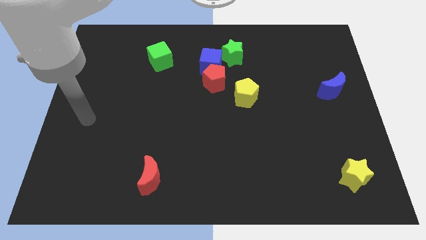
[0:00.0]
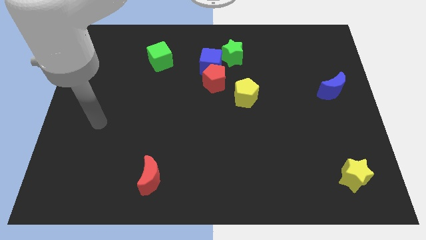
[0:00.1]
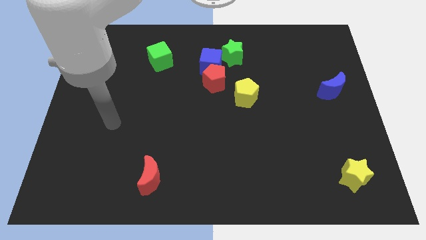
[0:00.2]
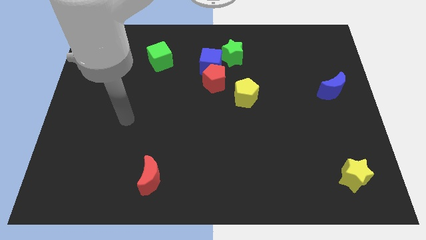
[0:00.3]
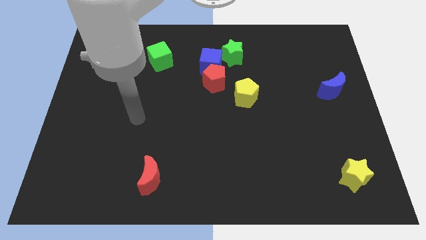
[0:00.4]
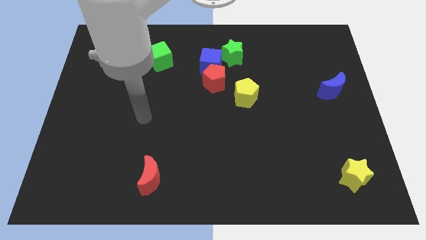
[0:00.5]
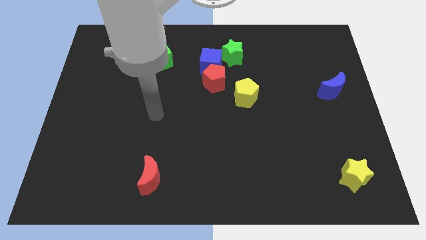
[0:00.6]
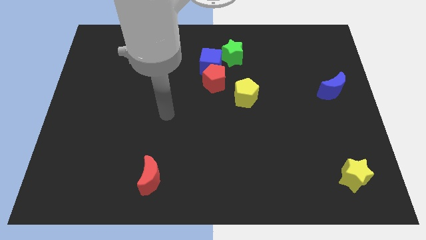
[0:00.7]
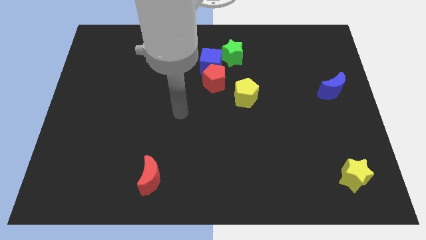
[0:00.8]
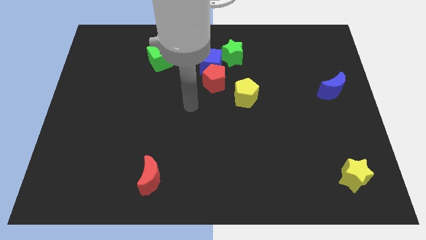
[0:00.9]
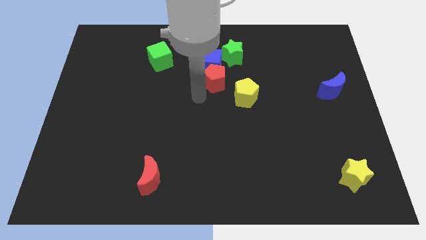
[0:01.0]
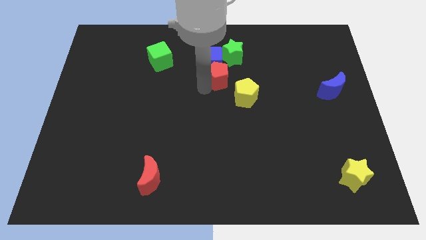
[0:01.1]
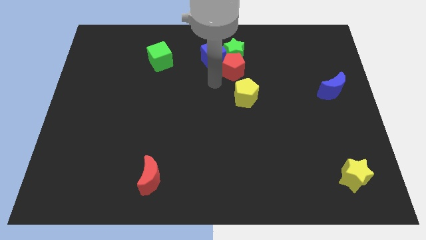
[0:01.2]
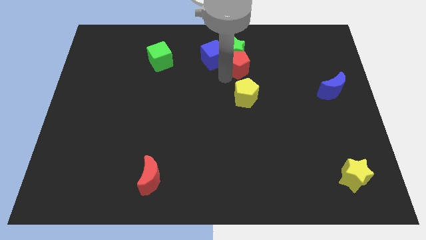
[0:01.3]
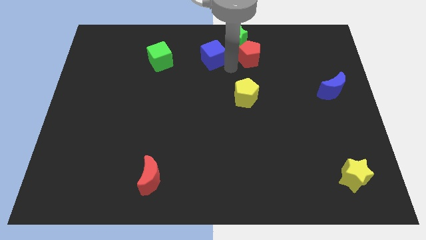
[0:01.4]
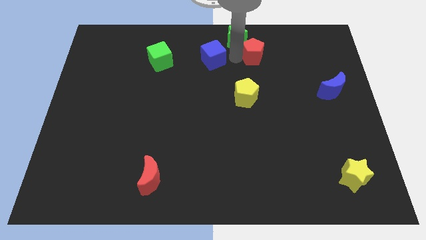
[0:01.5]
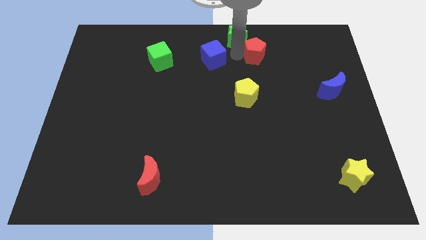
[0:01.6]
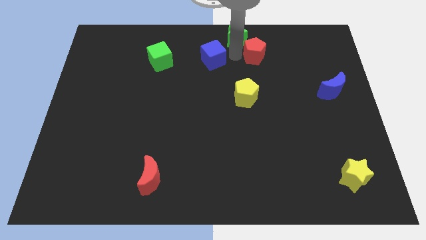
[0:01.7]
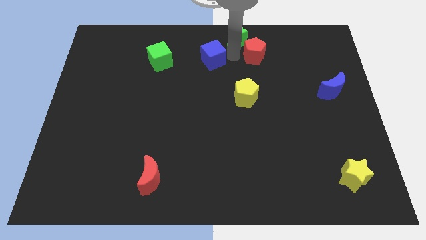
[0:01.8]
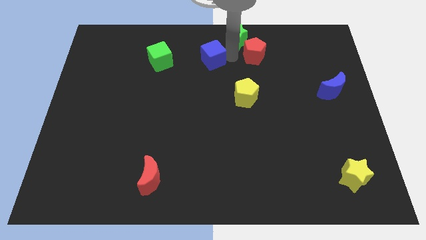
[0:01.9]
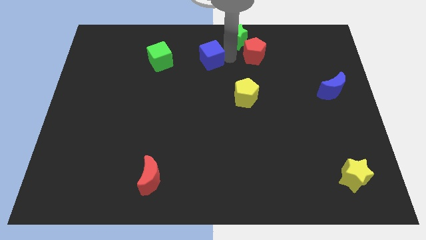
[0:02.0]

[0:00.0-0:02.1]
separate the blue cube from the red pentagon and green star

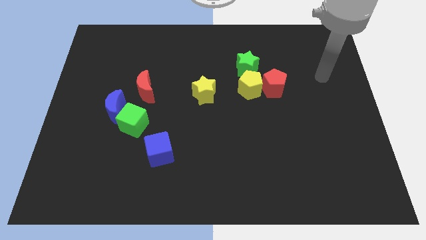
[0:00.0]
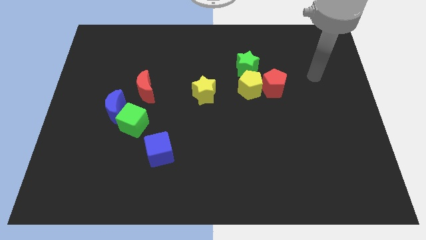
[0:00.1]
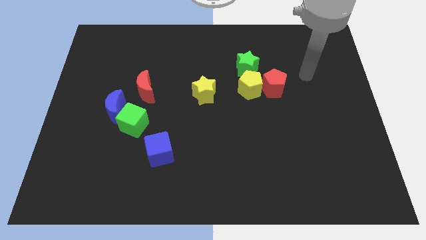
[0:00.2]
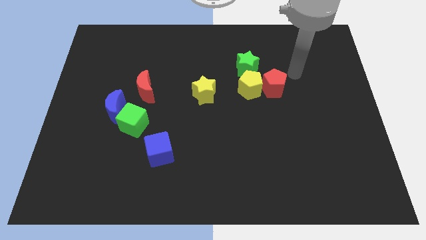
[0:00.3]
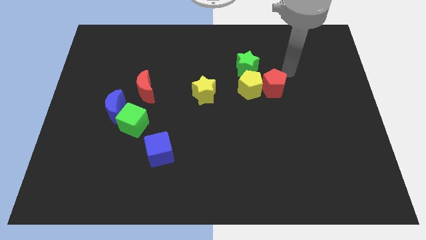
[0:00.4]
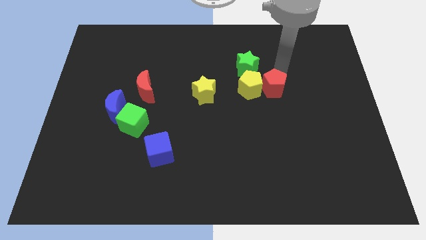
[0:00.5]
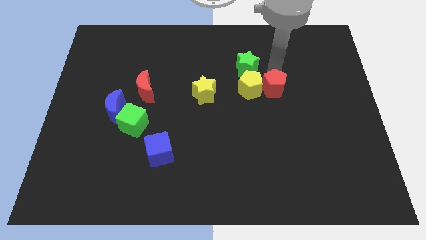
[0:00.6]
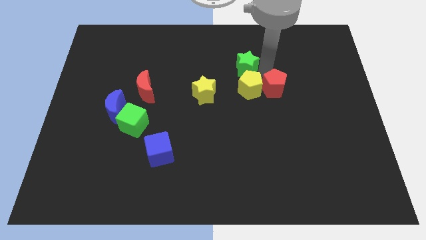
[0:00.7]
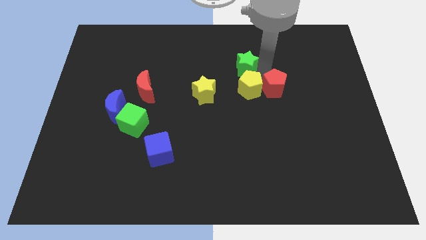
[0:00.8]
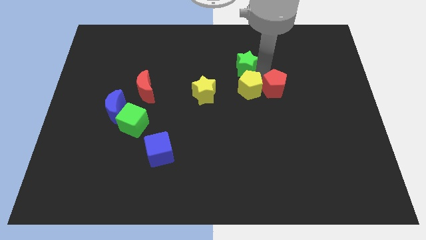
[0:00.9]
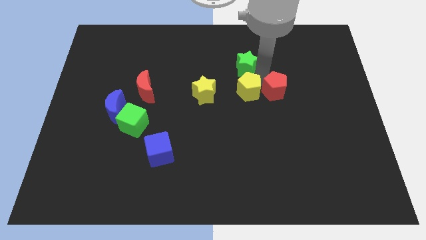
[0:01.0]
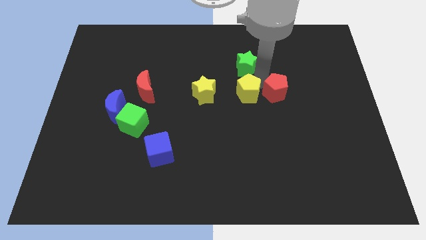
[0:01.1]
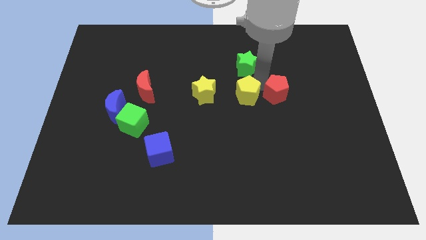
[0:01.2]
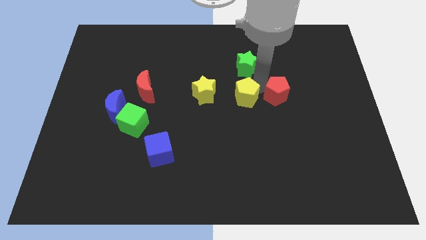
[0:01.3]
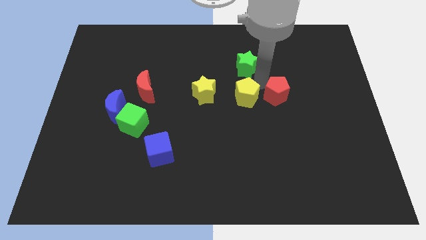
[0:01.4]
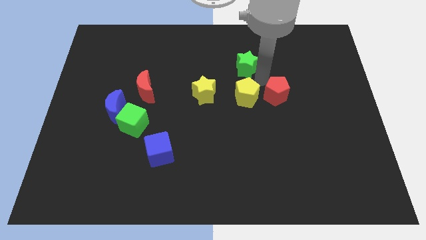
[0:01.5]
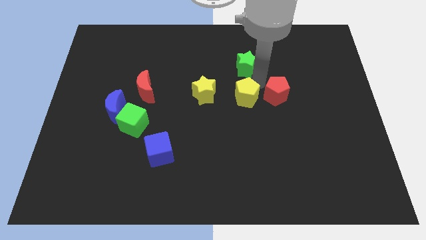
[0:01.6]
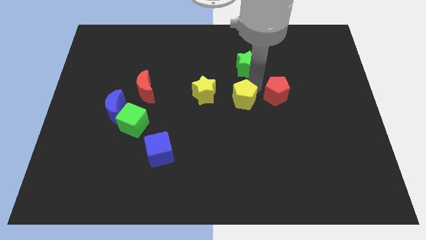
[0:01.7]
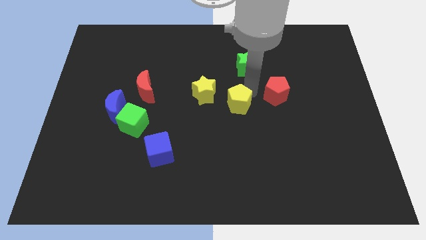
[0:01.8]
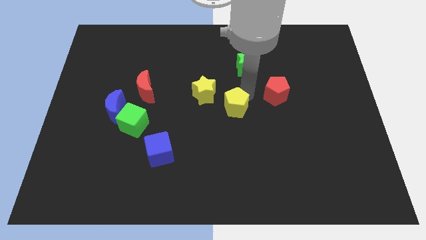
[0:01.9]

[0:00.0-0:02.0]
separate the yellow pentagon from the red pentagon and green star

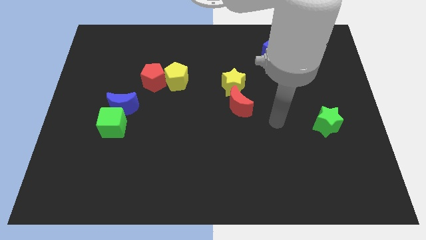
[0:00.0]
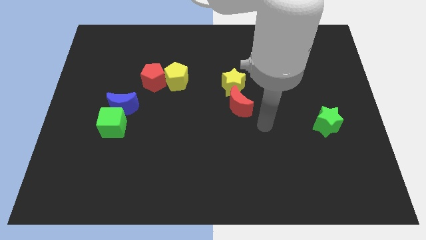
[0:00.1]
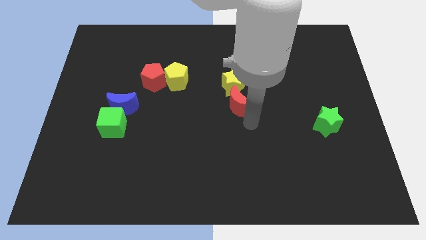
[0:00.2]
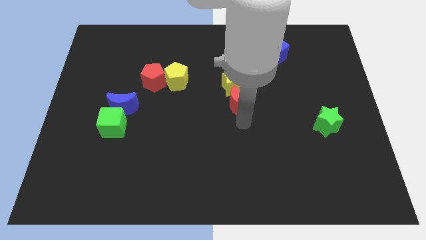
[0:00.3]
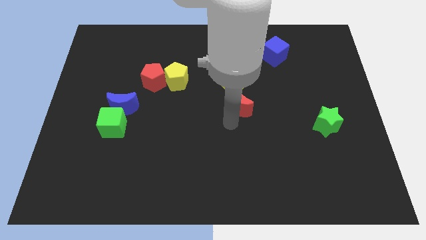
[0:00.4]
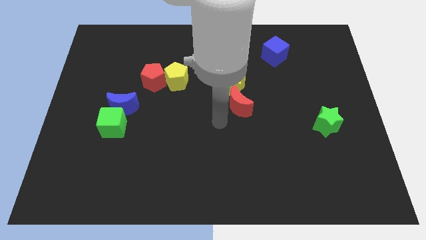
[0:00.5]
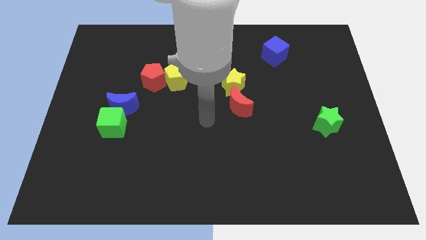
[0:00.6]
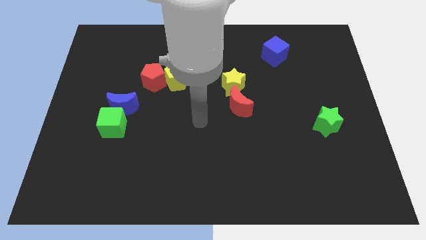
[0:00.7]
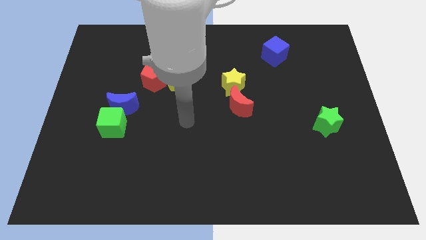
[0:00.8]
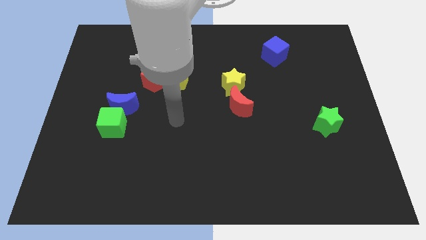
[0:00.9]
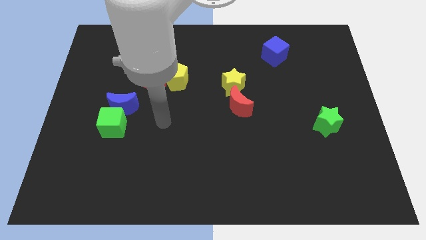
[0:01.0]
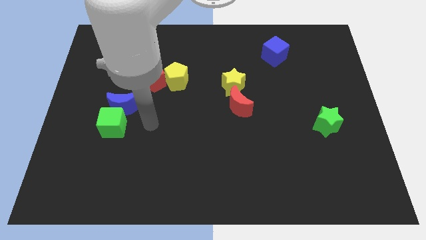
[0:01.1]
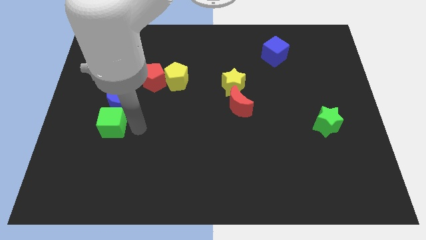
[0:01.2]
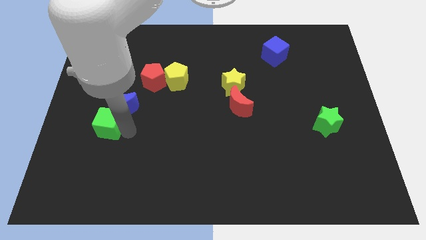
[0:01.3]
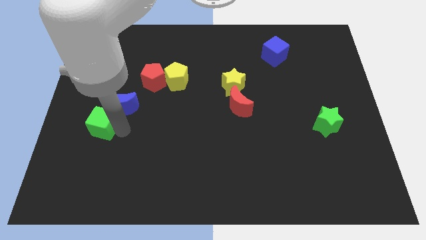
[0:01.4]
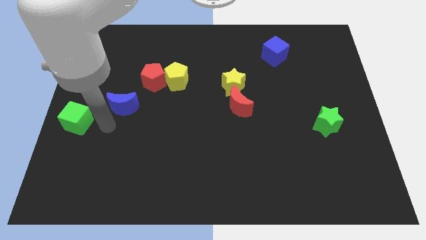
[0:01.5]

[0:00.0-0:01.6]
move the blue moon away from the green cube

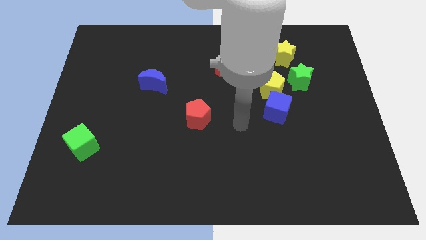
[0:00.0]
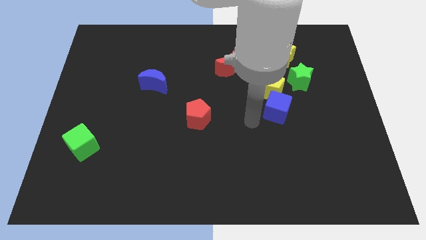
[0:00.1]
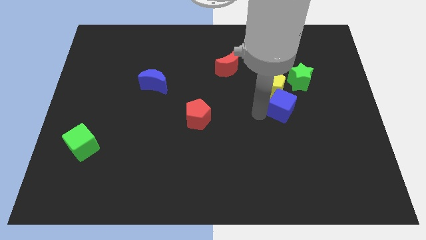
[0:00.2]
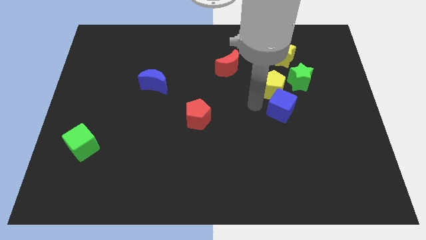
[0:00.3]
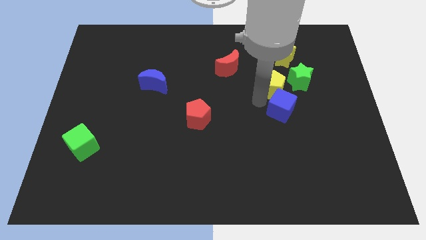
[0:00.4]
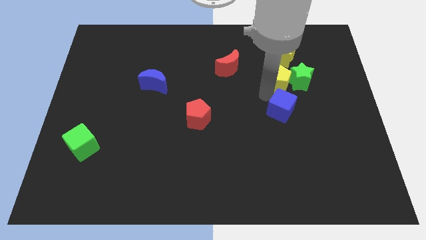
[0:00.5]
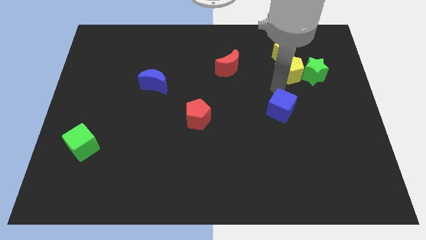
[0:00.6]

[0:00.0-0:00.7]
separate the blue cube from the yellow pentagon

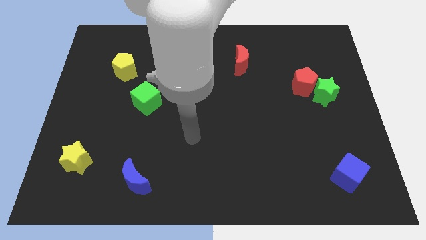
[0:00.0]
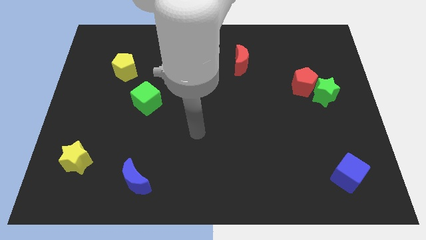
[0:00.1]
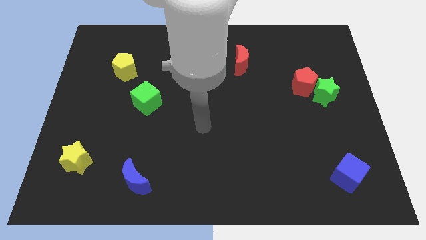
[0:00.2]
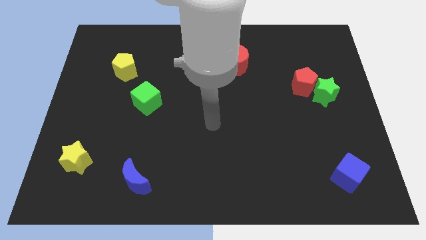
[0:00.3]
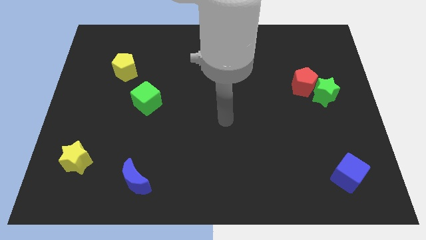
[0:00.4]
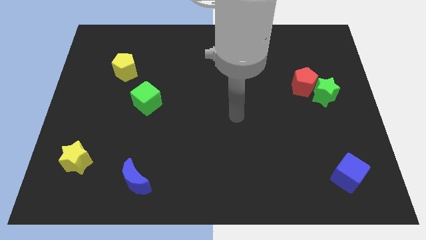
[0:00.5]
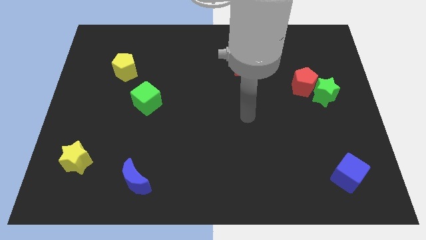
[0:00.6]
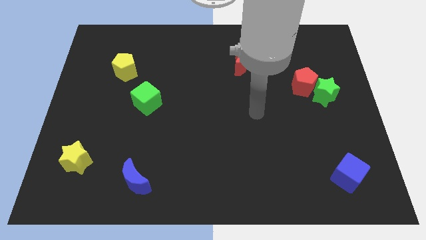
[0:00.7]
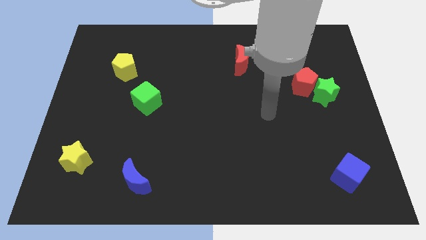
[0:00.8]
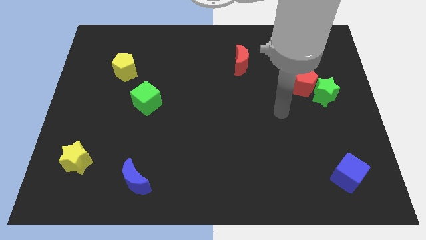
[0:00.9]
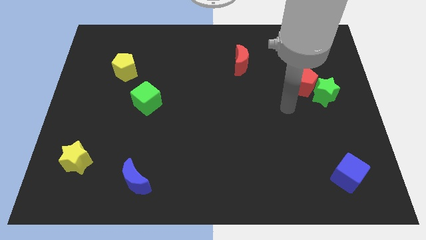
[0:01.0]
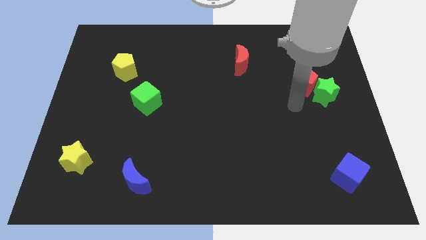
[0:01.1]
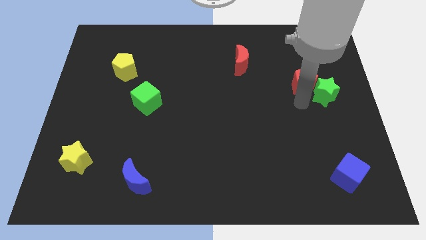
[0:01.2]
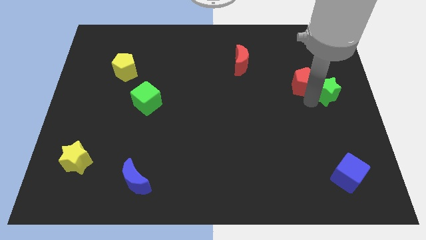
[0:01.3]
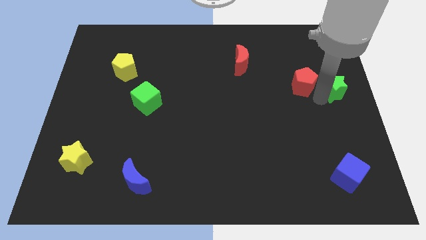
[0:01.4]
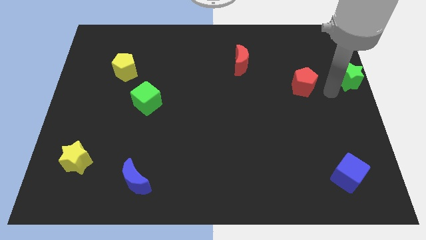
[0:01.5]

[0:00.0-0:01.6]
separate the red pentagon from the green star

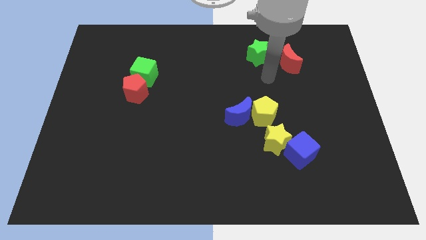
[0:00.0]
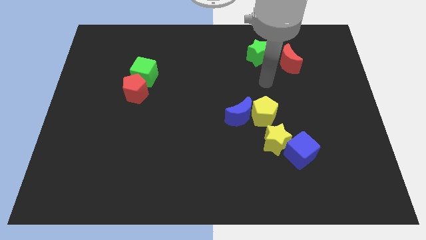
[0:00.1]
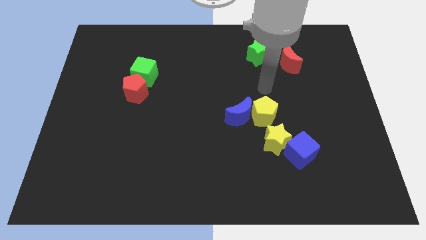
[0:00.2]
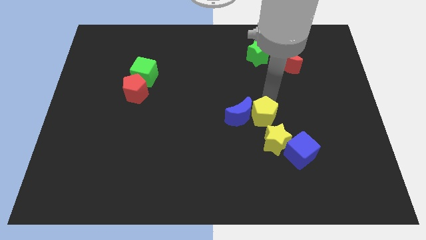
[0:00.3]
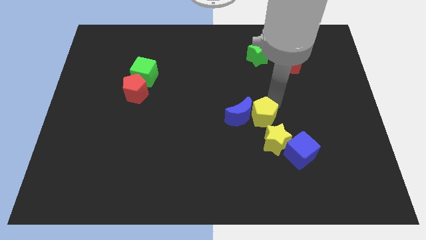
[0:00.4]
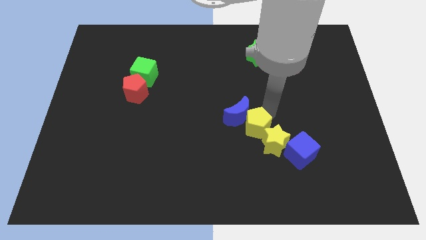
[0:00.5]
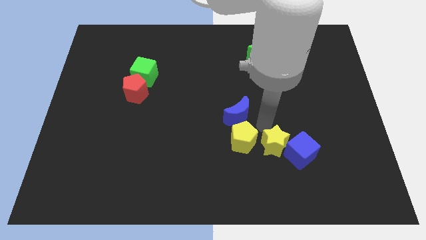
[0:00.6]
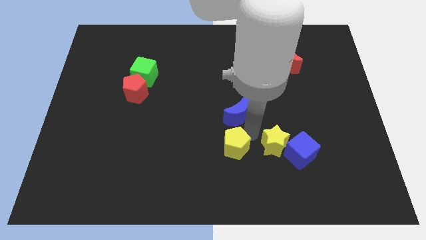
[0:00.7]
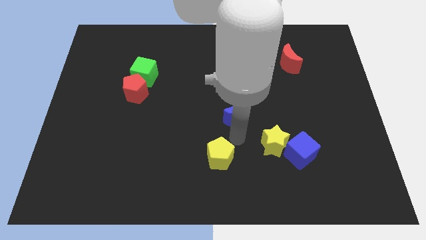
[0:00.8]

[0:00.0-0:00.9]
separate the blue moon from the yellow pentagon

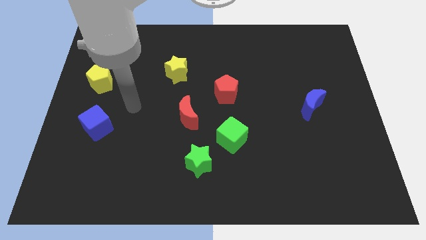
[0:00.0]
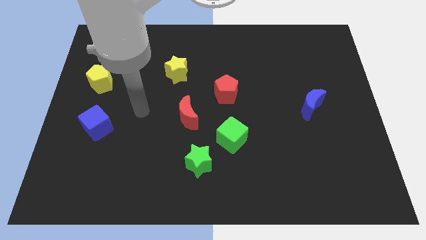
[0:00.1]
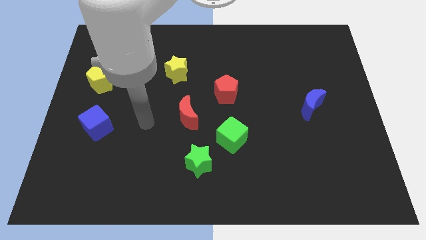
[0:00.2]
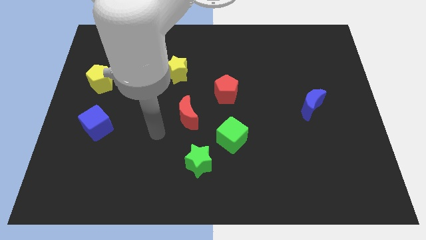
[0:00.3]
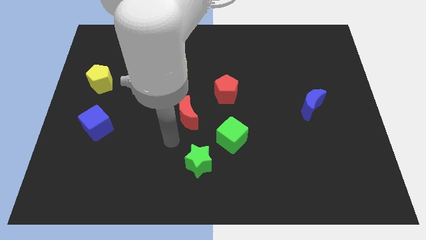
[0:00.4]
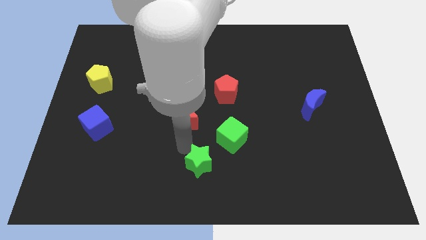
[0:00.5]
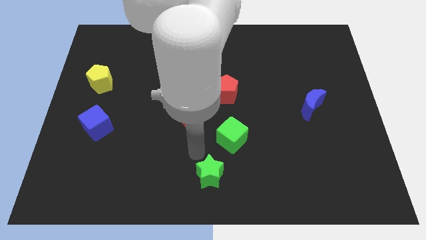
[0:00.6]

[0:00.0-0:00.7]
pull the green cube apart from the green star
